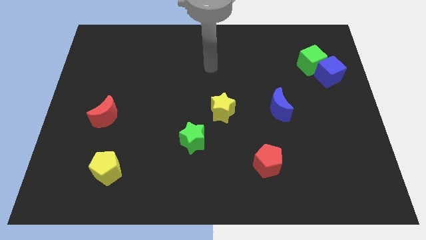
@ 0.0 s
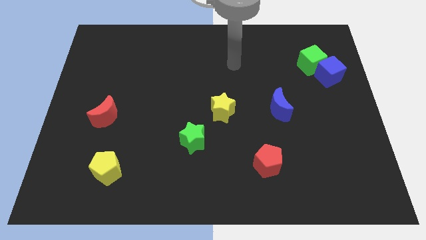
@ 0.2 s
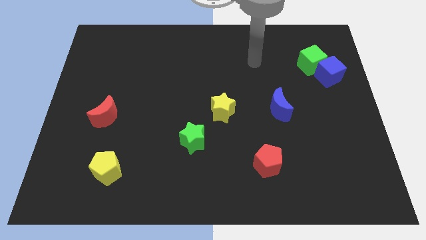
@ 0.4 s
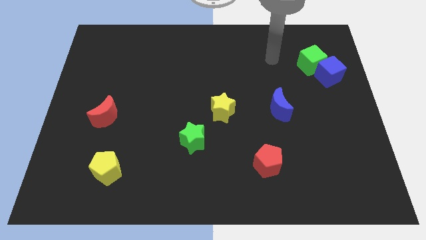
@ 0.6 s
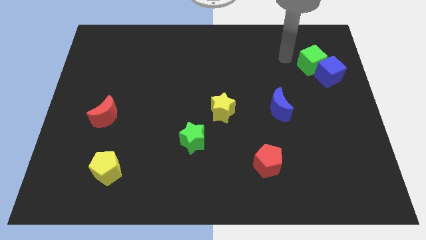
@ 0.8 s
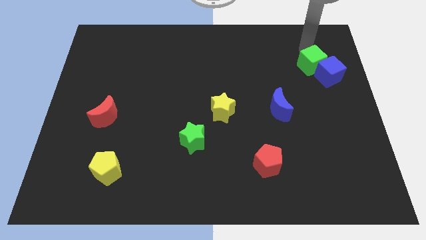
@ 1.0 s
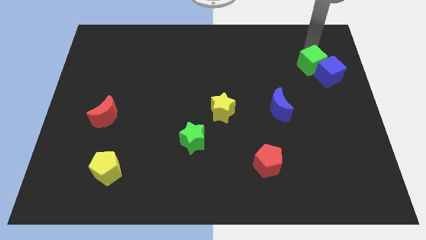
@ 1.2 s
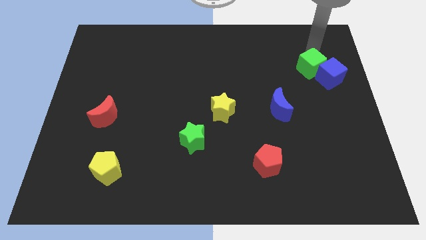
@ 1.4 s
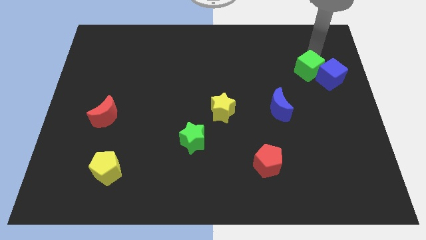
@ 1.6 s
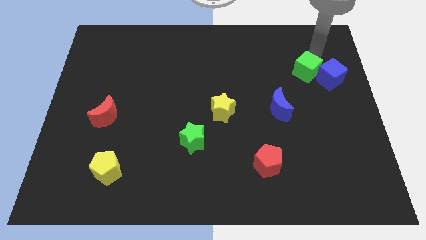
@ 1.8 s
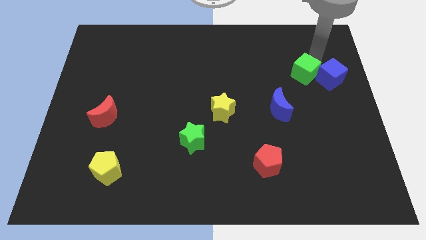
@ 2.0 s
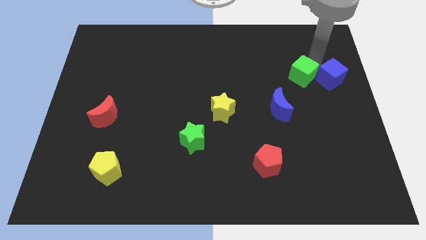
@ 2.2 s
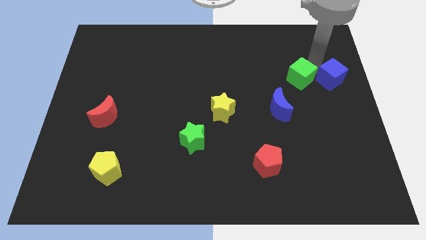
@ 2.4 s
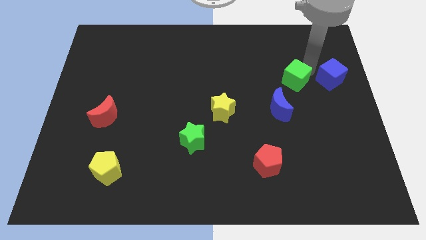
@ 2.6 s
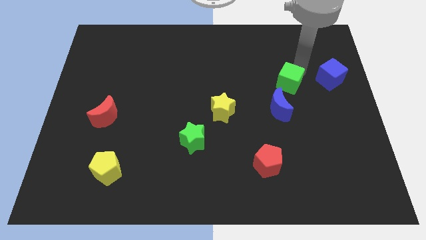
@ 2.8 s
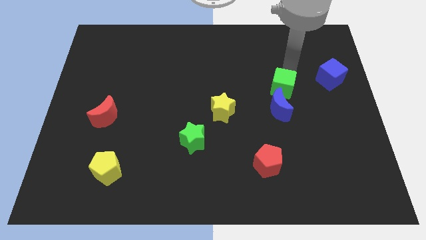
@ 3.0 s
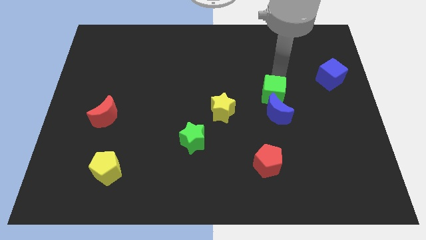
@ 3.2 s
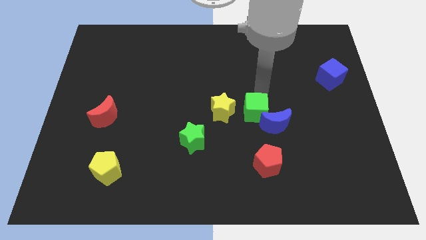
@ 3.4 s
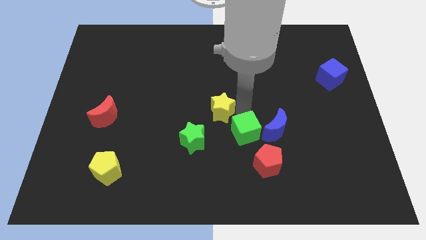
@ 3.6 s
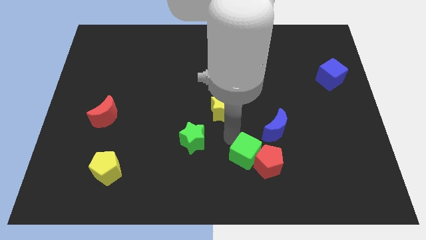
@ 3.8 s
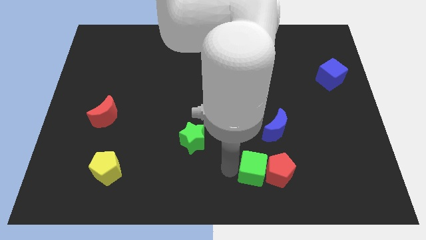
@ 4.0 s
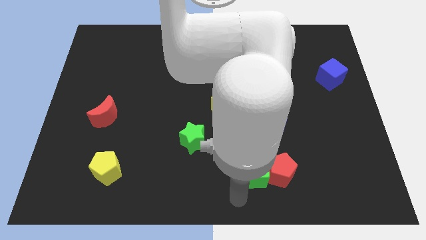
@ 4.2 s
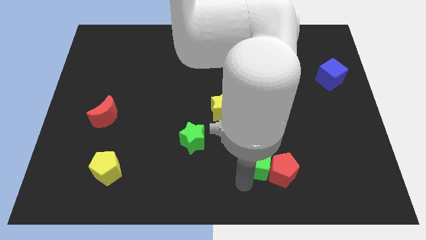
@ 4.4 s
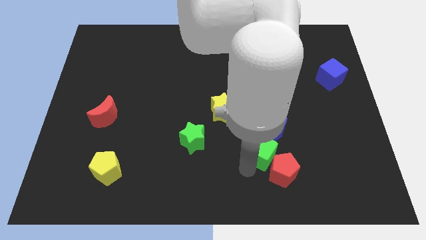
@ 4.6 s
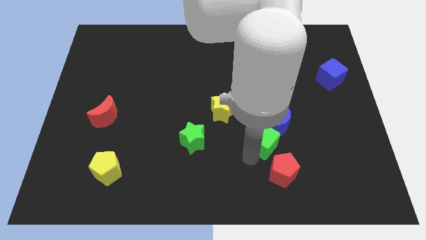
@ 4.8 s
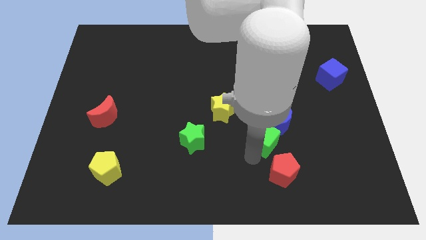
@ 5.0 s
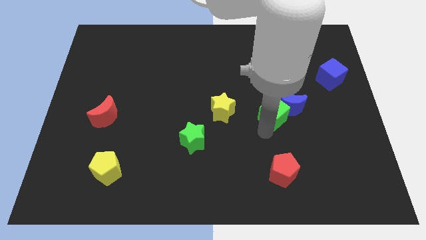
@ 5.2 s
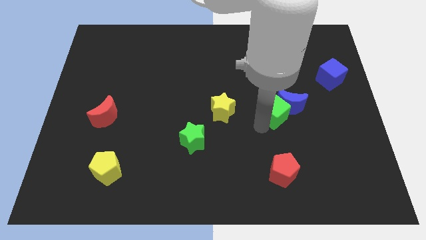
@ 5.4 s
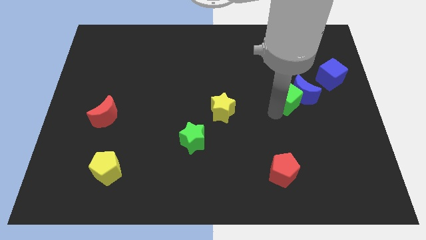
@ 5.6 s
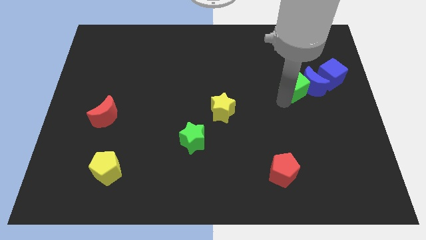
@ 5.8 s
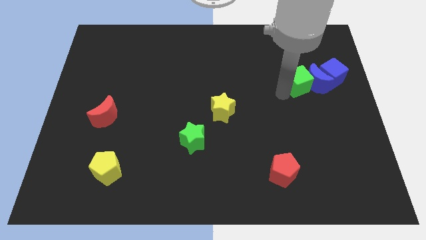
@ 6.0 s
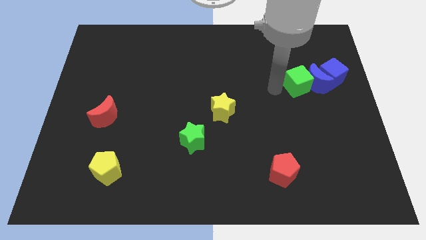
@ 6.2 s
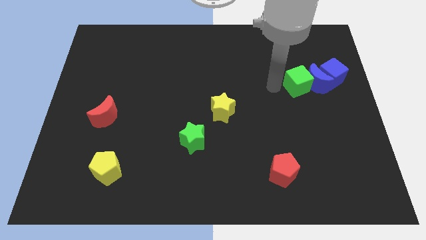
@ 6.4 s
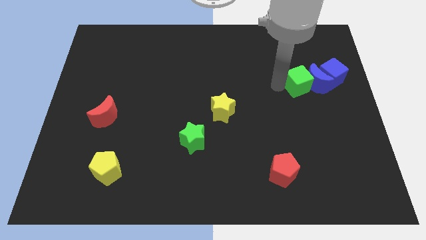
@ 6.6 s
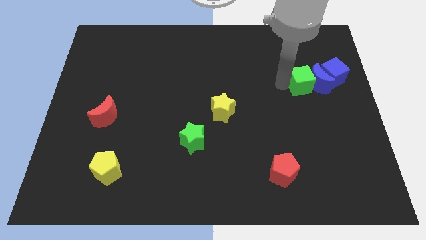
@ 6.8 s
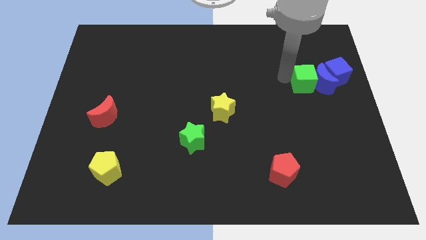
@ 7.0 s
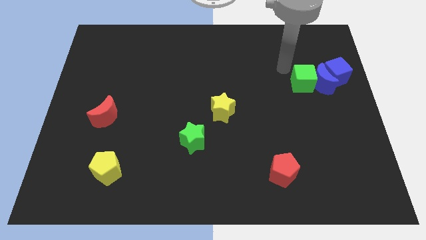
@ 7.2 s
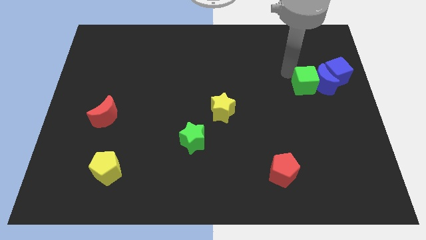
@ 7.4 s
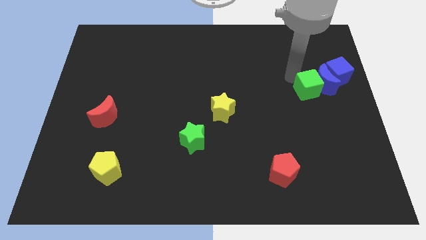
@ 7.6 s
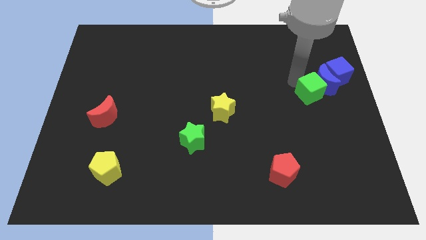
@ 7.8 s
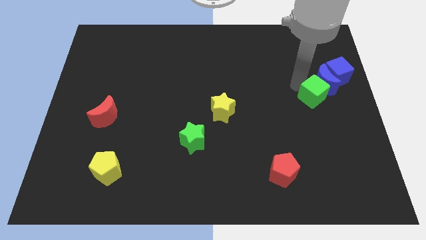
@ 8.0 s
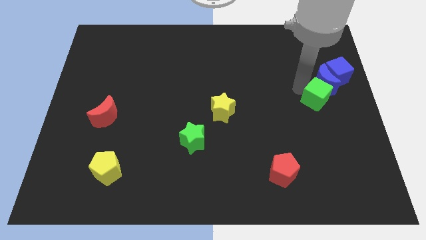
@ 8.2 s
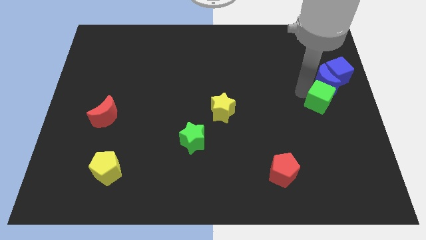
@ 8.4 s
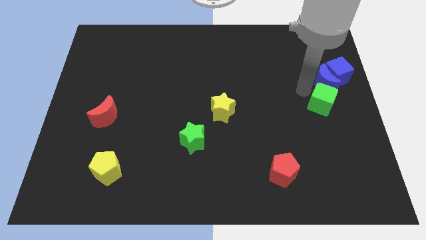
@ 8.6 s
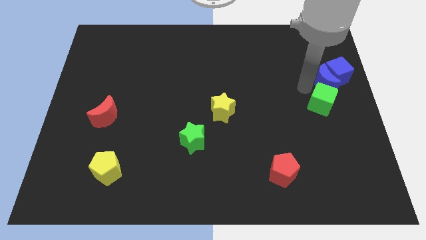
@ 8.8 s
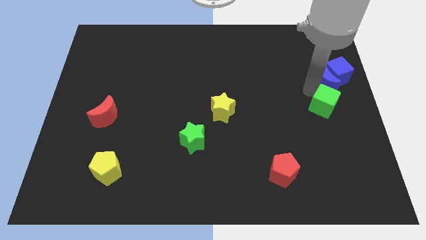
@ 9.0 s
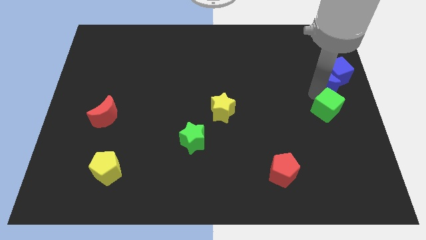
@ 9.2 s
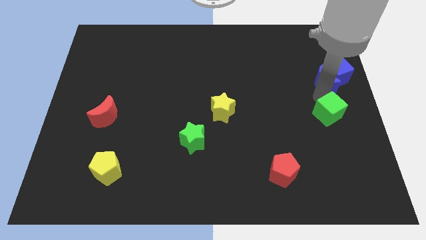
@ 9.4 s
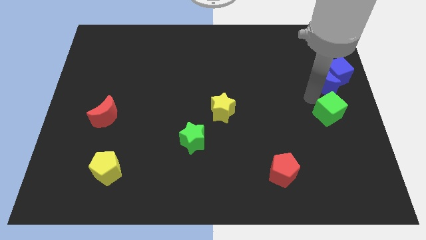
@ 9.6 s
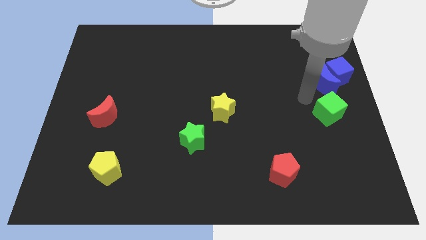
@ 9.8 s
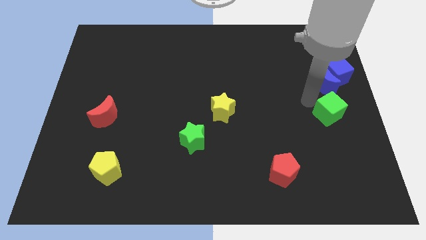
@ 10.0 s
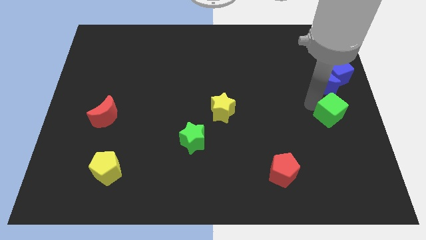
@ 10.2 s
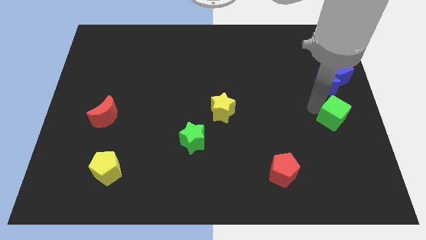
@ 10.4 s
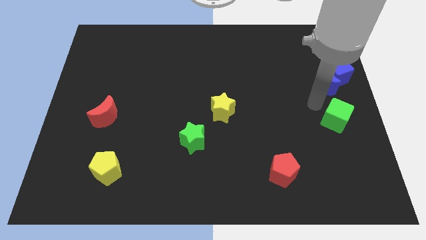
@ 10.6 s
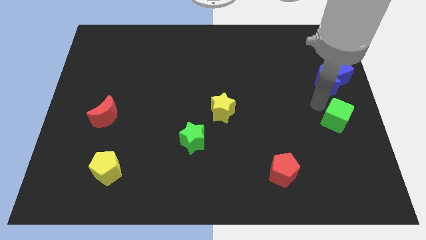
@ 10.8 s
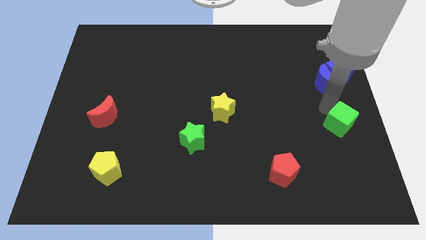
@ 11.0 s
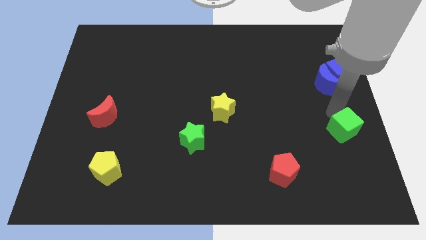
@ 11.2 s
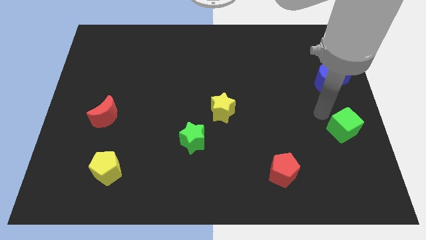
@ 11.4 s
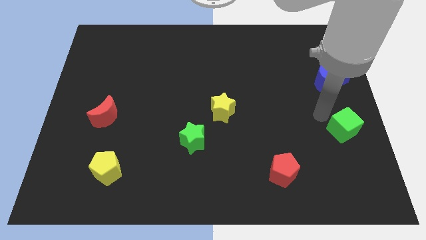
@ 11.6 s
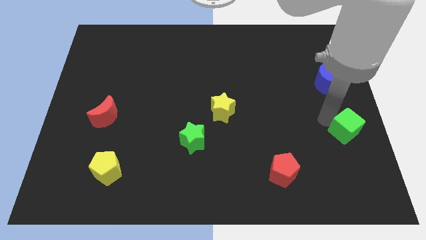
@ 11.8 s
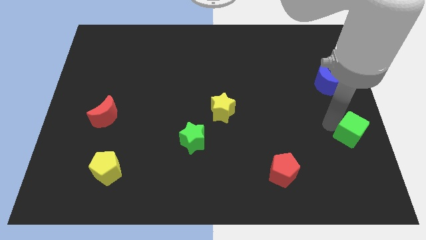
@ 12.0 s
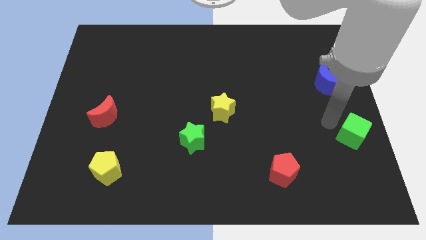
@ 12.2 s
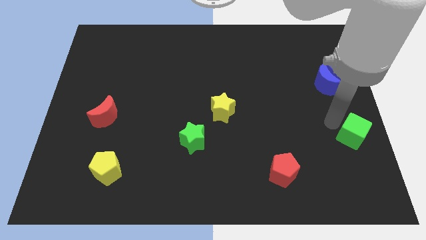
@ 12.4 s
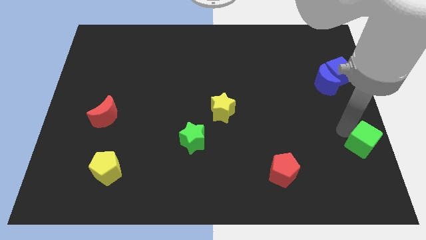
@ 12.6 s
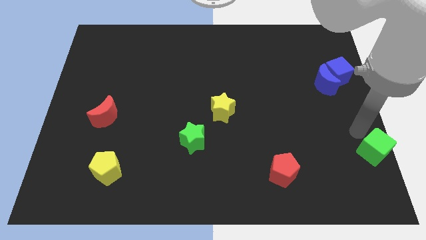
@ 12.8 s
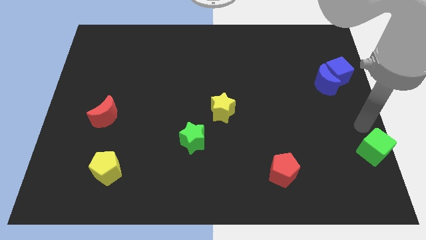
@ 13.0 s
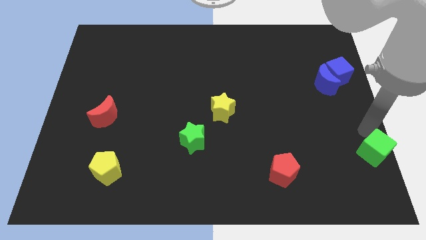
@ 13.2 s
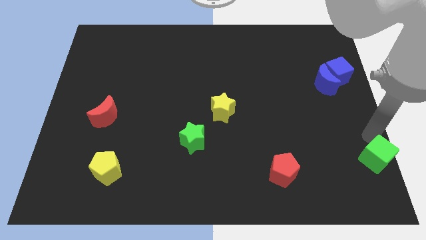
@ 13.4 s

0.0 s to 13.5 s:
move the green cube to the bottom right of the board
